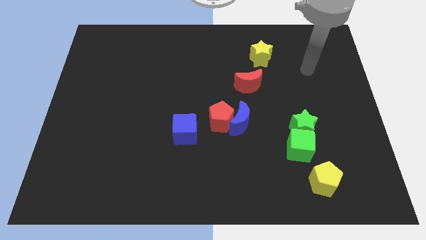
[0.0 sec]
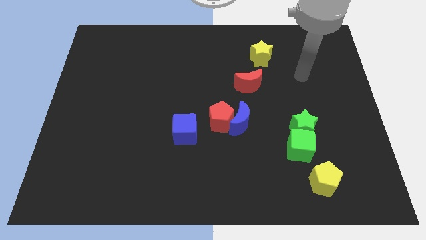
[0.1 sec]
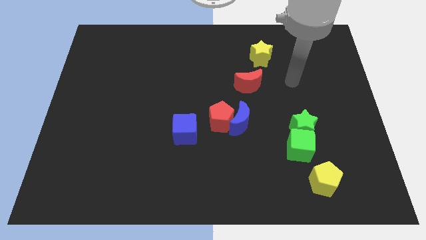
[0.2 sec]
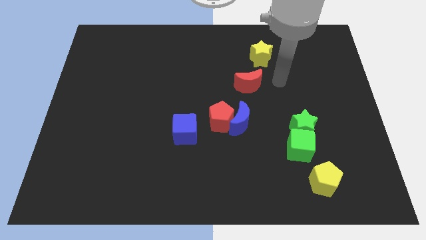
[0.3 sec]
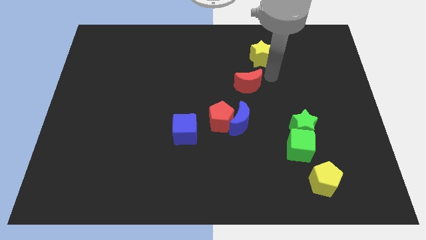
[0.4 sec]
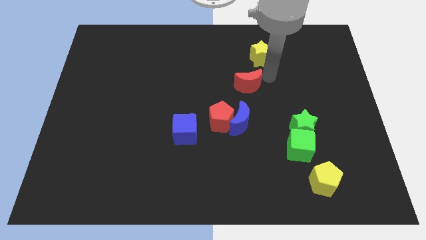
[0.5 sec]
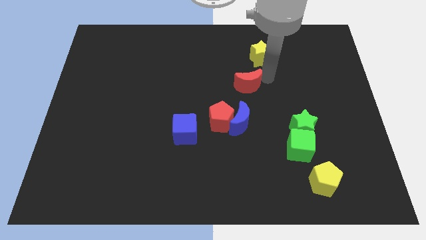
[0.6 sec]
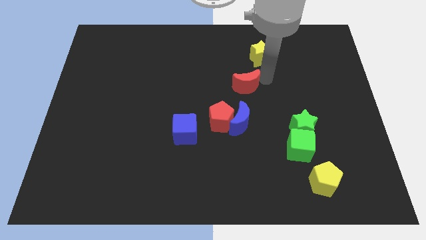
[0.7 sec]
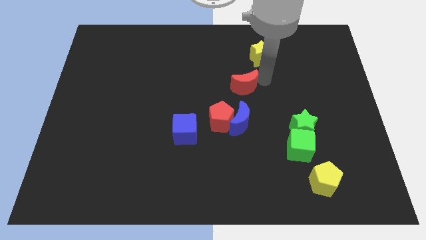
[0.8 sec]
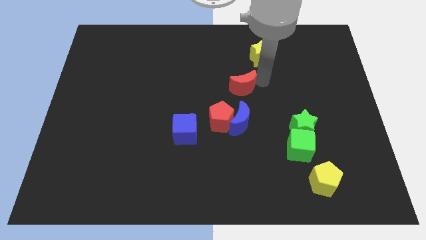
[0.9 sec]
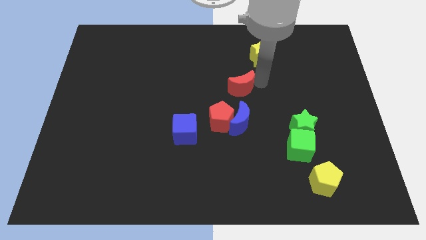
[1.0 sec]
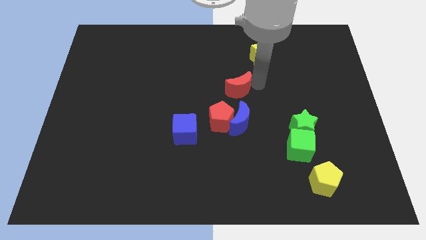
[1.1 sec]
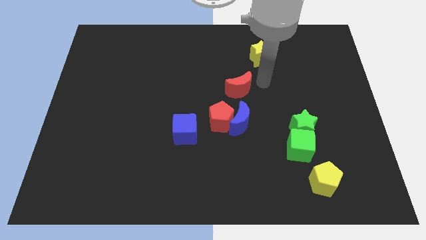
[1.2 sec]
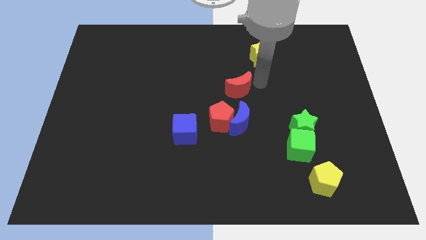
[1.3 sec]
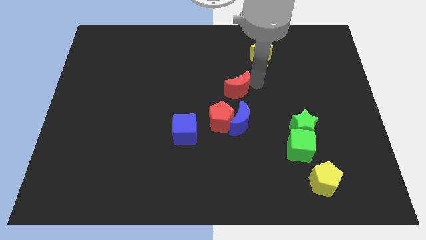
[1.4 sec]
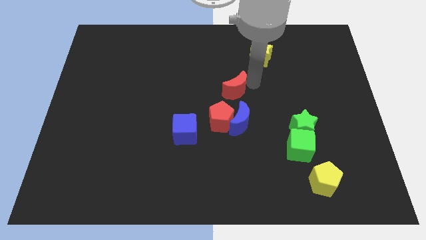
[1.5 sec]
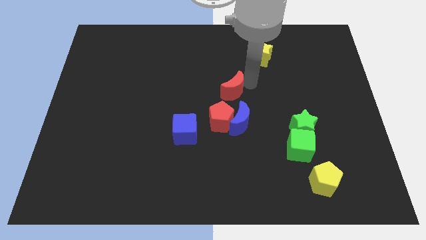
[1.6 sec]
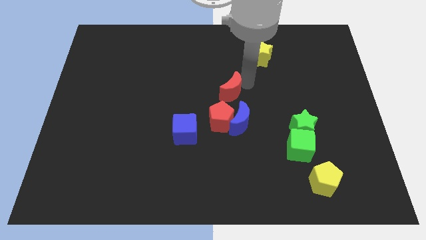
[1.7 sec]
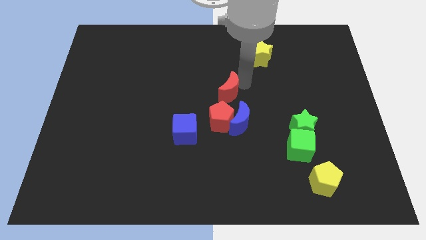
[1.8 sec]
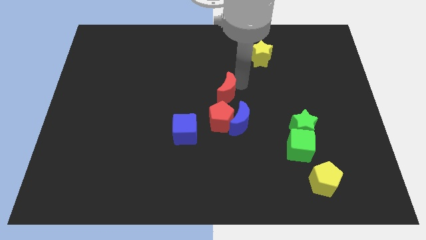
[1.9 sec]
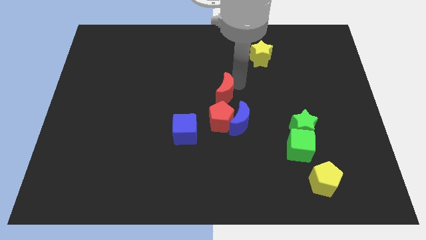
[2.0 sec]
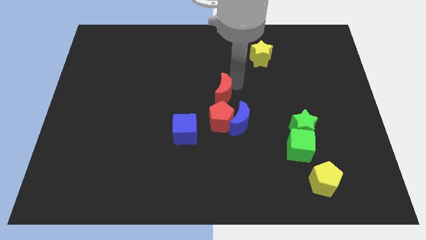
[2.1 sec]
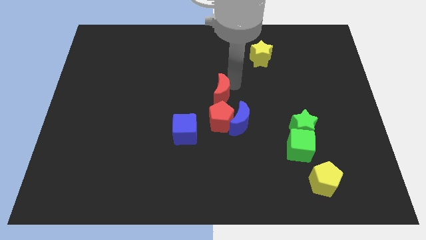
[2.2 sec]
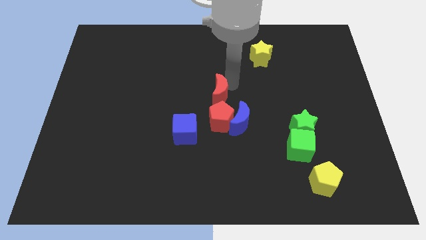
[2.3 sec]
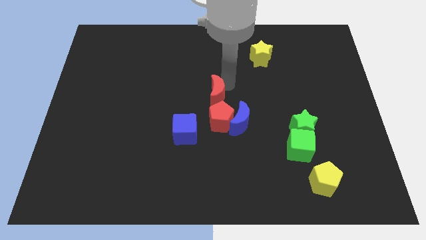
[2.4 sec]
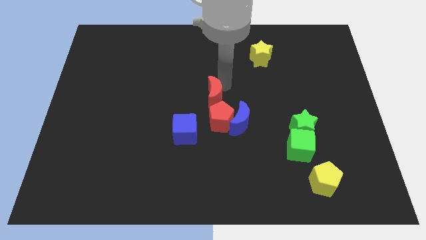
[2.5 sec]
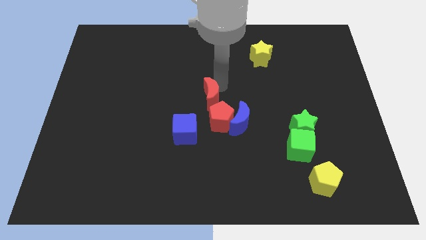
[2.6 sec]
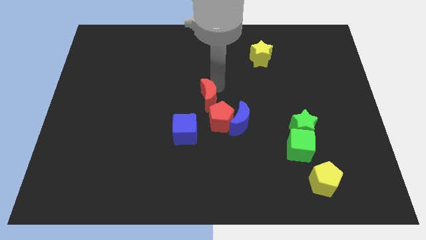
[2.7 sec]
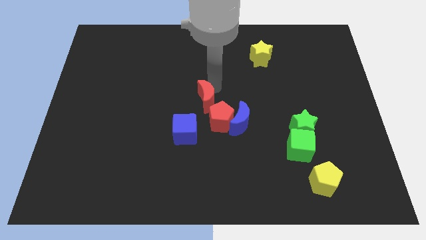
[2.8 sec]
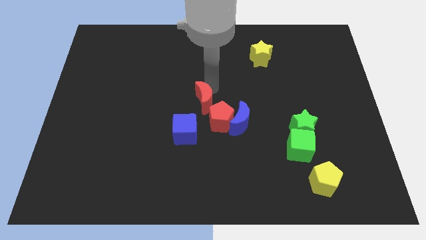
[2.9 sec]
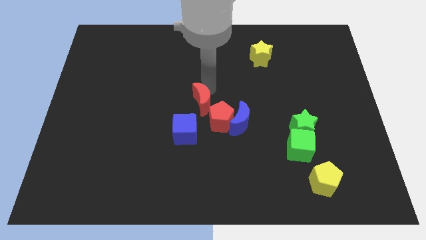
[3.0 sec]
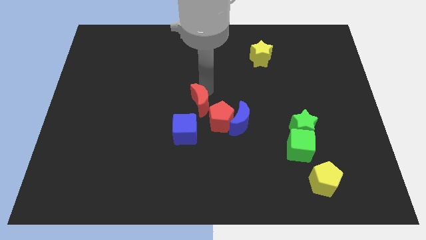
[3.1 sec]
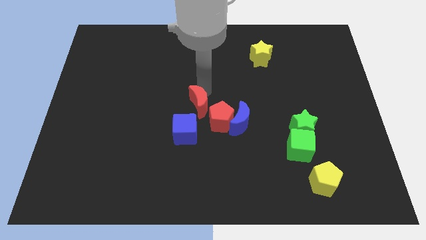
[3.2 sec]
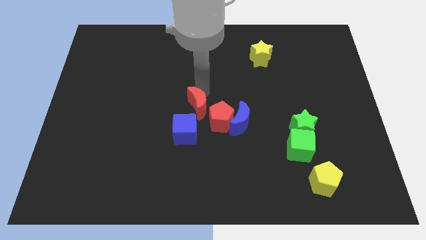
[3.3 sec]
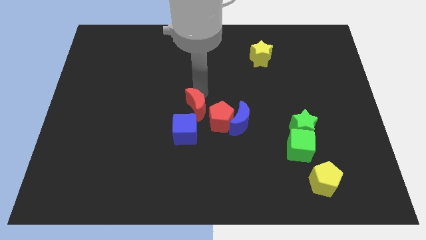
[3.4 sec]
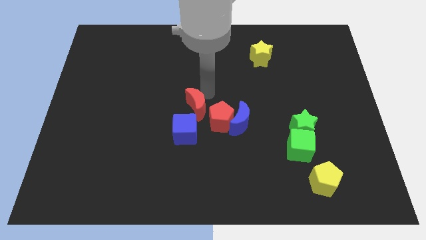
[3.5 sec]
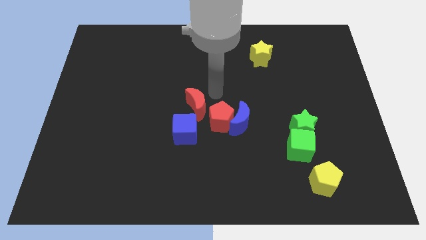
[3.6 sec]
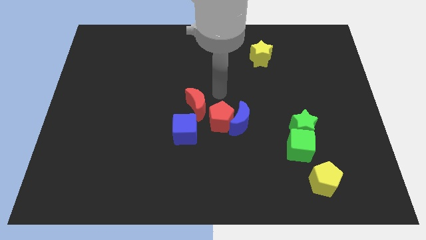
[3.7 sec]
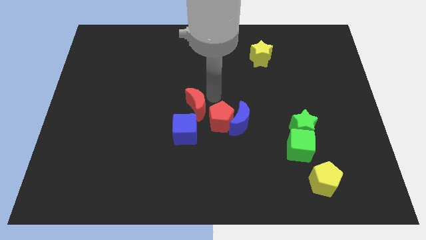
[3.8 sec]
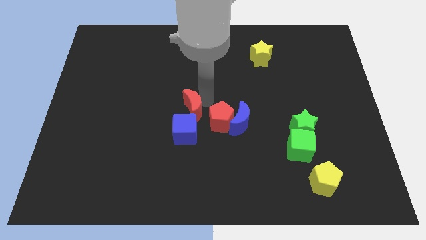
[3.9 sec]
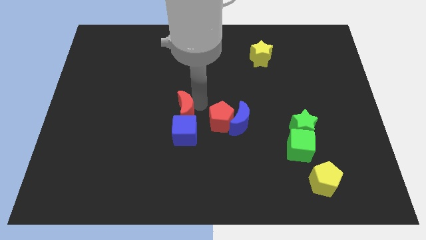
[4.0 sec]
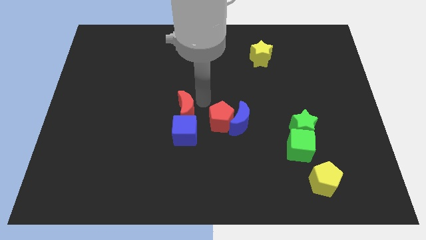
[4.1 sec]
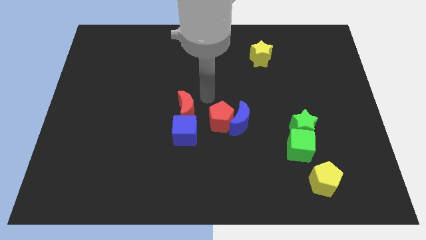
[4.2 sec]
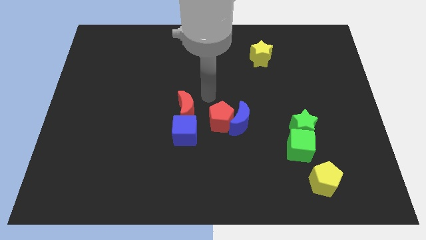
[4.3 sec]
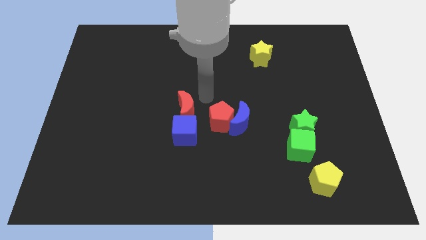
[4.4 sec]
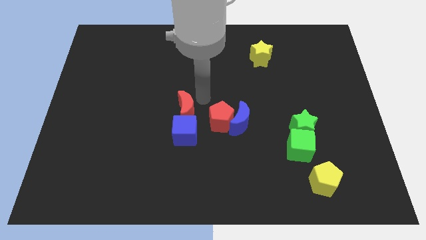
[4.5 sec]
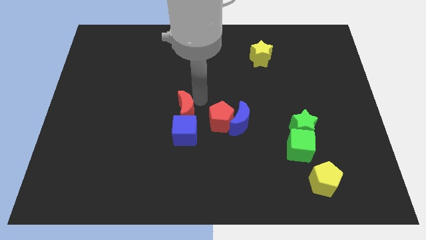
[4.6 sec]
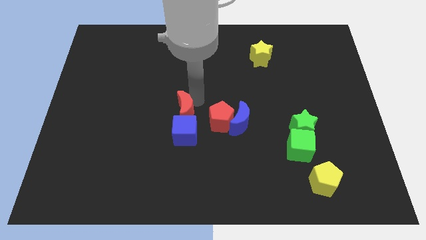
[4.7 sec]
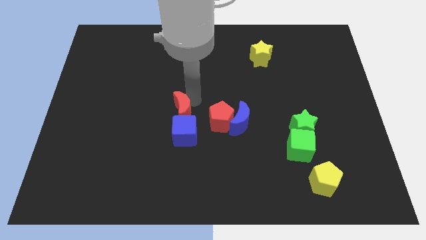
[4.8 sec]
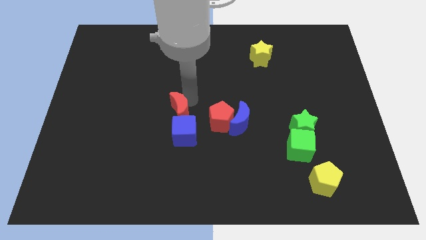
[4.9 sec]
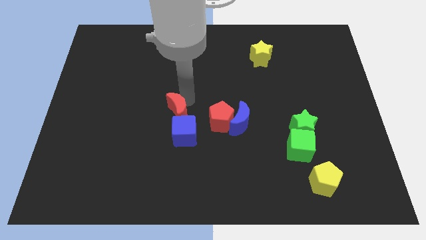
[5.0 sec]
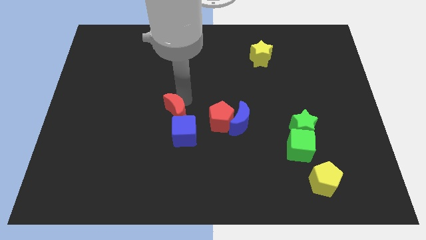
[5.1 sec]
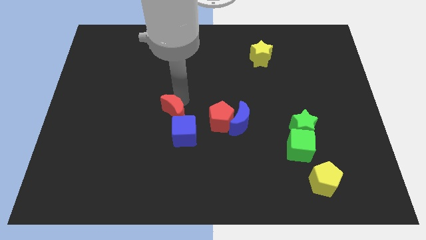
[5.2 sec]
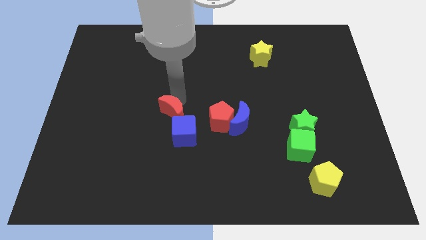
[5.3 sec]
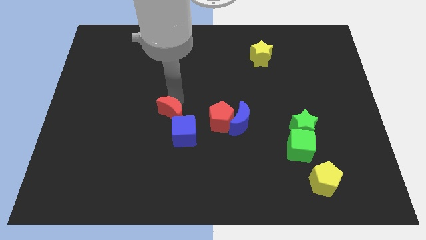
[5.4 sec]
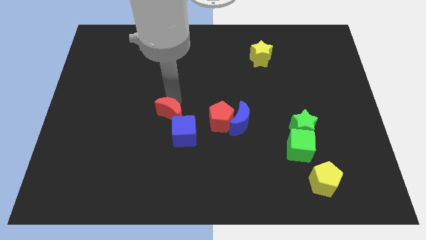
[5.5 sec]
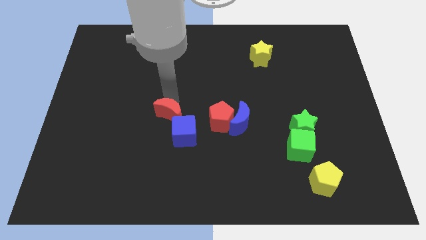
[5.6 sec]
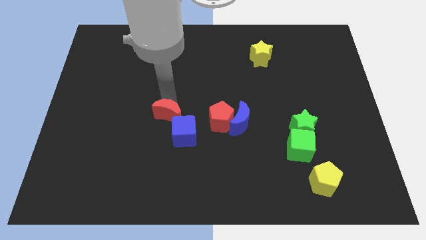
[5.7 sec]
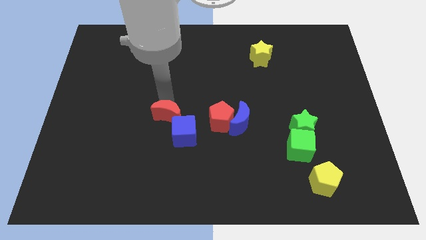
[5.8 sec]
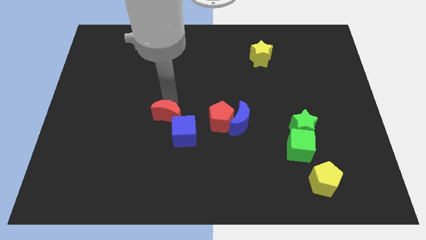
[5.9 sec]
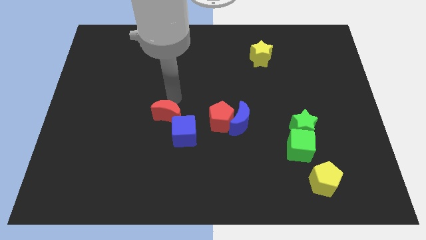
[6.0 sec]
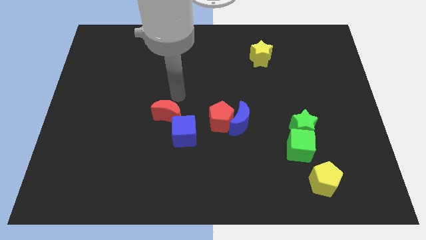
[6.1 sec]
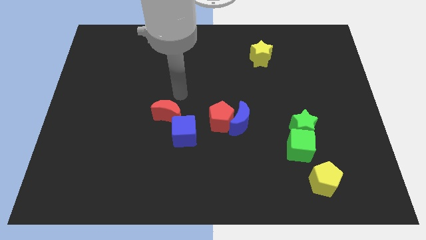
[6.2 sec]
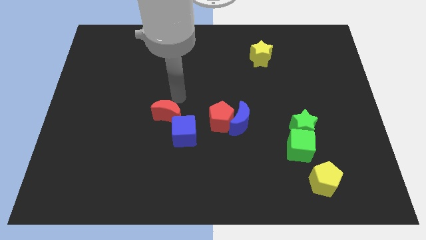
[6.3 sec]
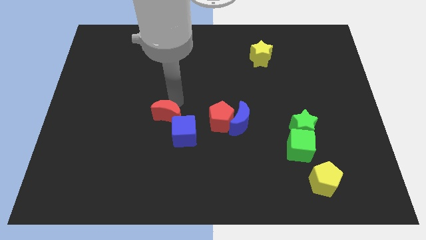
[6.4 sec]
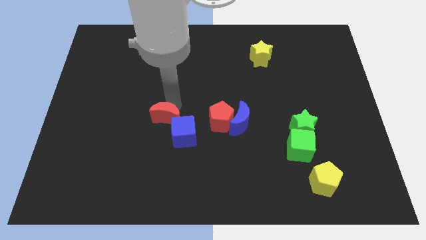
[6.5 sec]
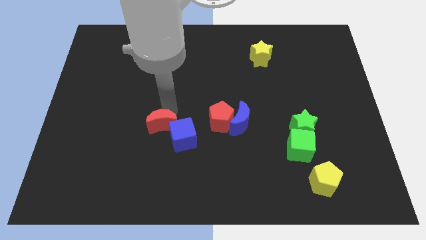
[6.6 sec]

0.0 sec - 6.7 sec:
slide the red moon down and to the left diagonally

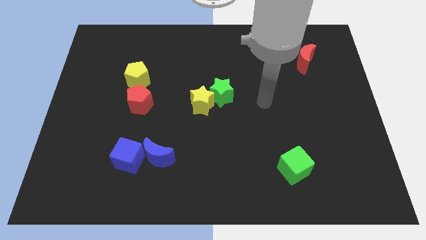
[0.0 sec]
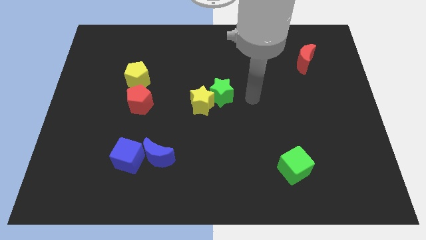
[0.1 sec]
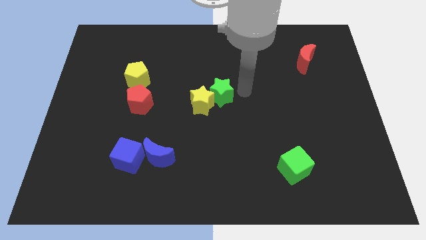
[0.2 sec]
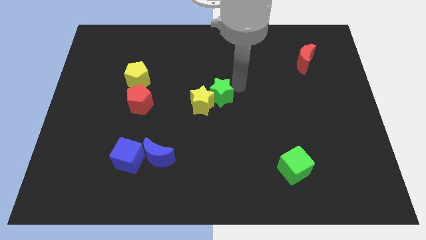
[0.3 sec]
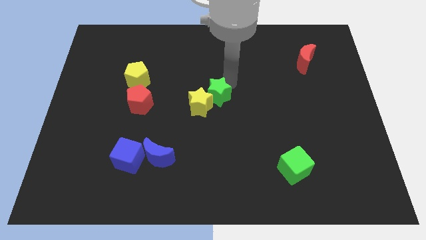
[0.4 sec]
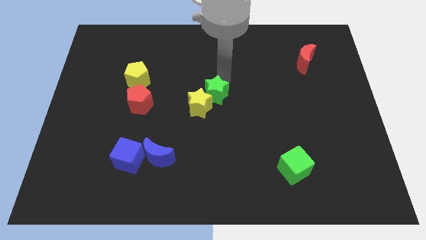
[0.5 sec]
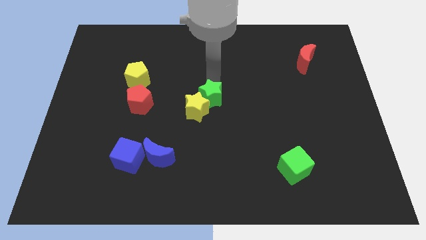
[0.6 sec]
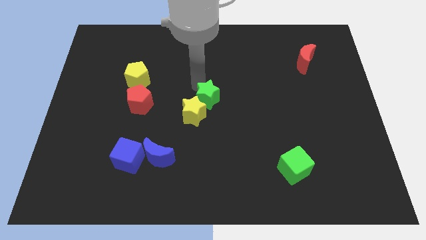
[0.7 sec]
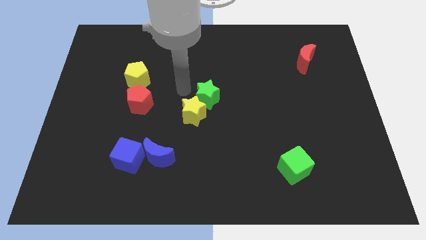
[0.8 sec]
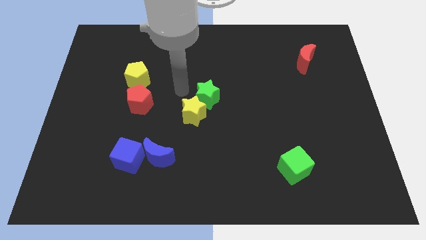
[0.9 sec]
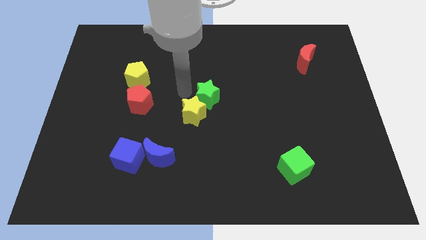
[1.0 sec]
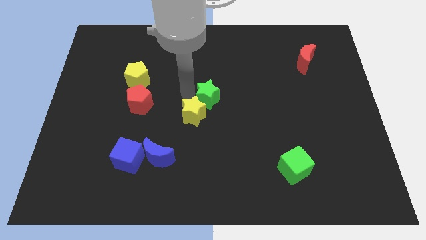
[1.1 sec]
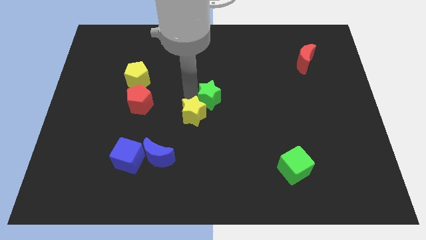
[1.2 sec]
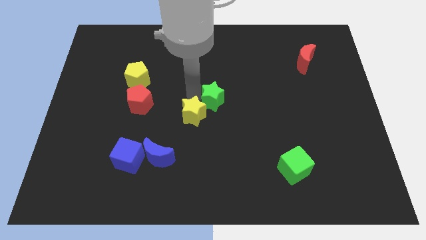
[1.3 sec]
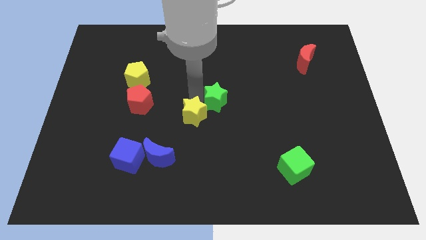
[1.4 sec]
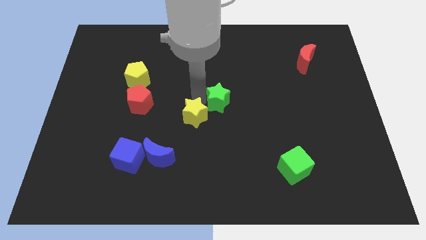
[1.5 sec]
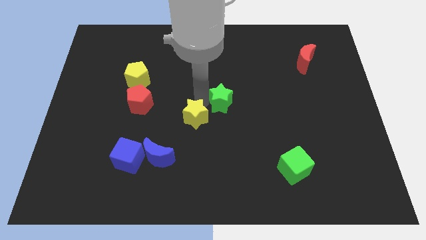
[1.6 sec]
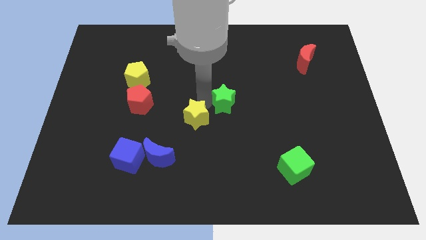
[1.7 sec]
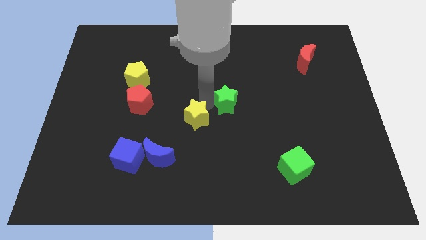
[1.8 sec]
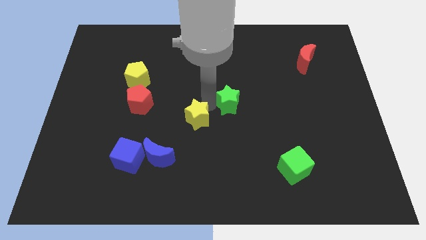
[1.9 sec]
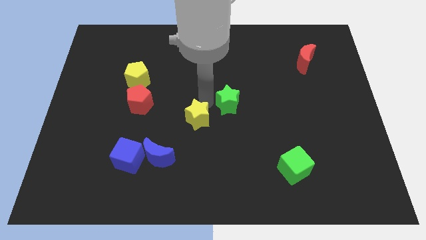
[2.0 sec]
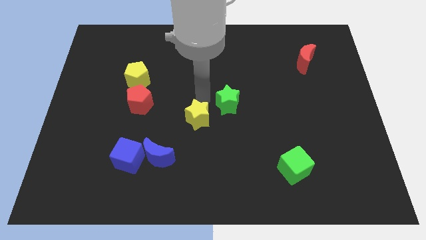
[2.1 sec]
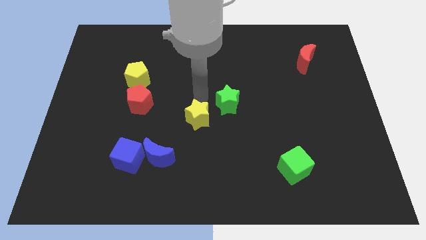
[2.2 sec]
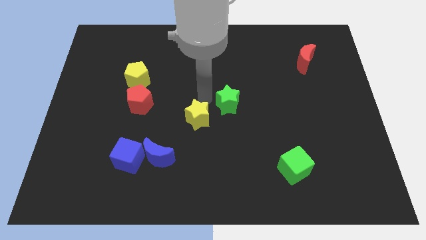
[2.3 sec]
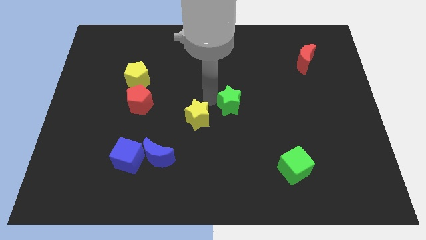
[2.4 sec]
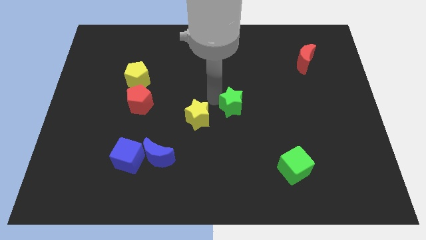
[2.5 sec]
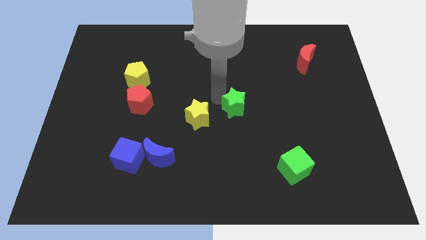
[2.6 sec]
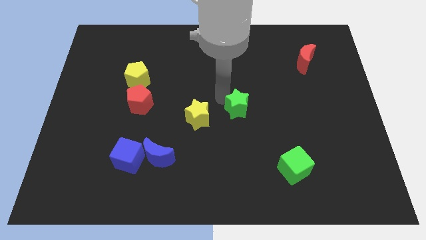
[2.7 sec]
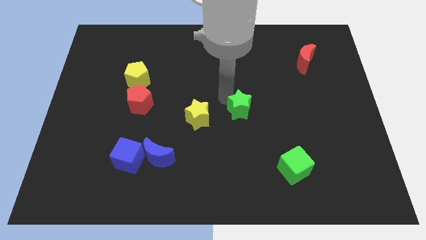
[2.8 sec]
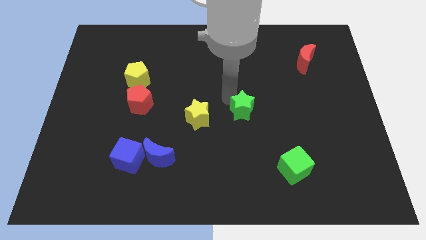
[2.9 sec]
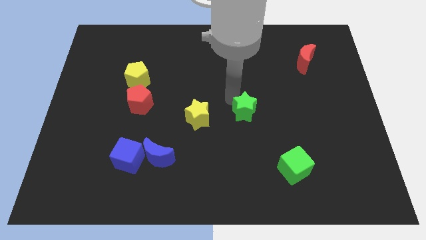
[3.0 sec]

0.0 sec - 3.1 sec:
push the green star a little down and then to the right
